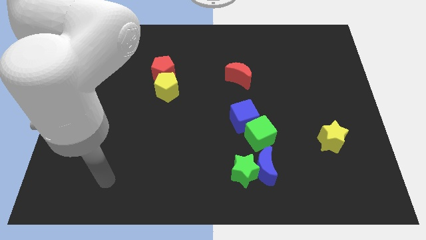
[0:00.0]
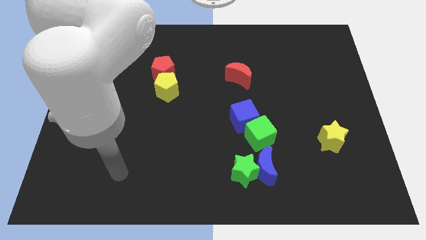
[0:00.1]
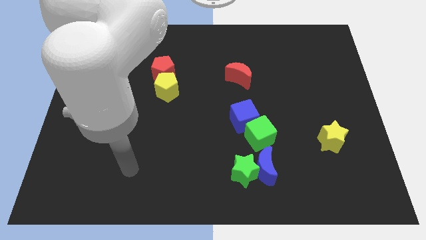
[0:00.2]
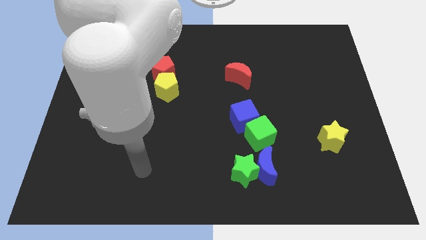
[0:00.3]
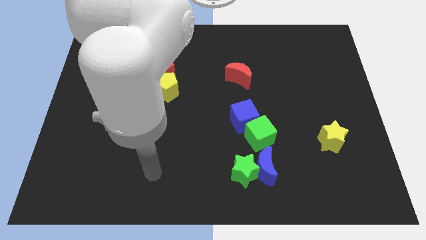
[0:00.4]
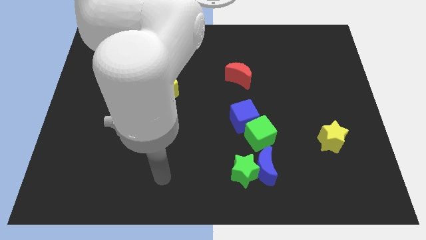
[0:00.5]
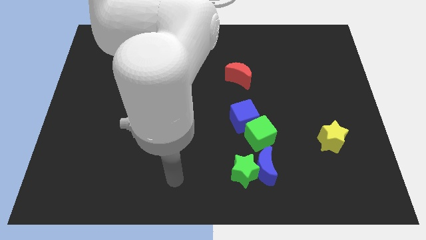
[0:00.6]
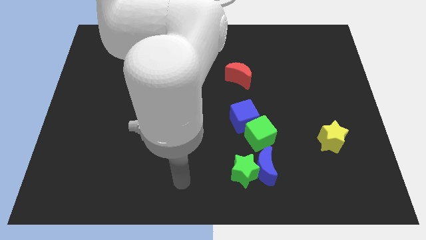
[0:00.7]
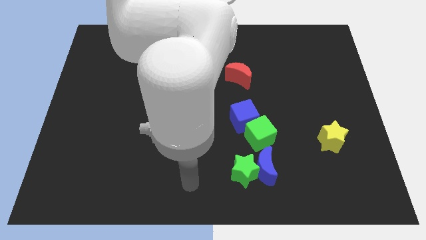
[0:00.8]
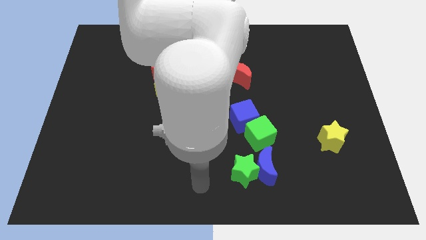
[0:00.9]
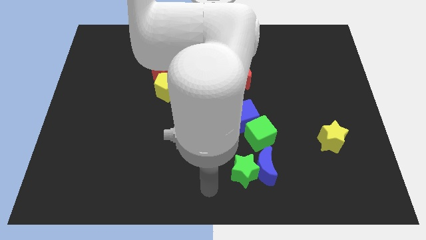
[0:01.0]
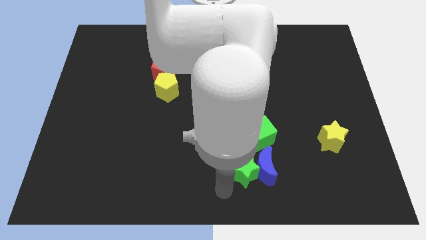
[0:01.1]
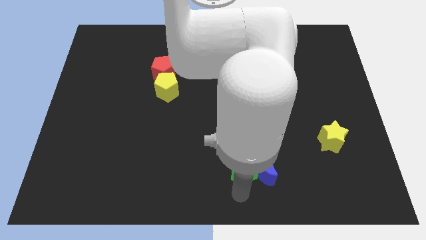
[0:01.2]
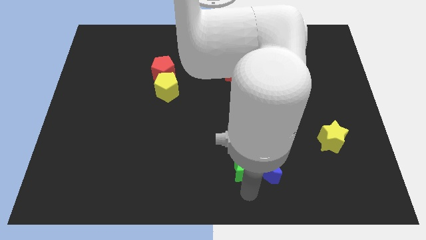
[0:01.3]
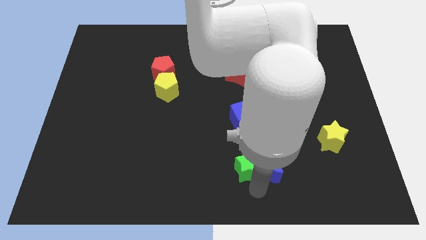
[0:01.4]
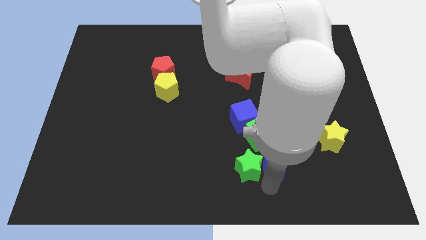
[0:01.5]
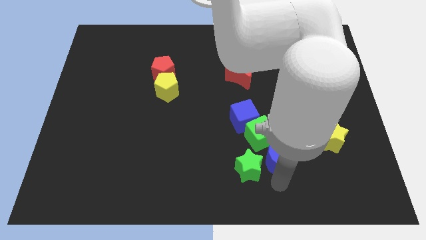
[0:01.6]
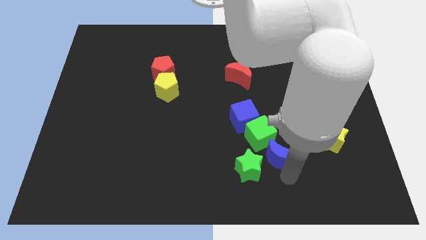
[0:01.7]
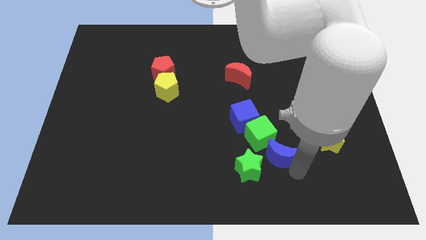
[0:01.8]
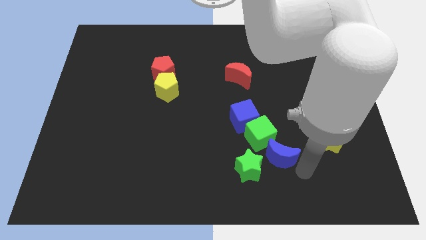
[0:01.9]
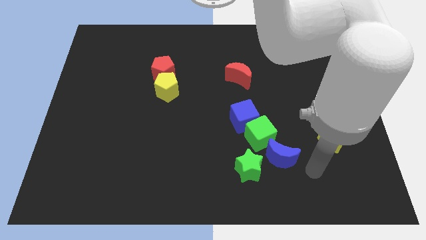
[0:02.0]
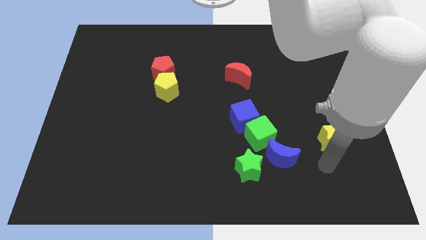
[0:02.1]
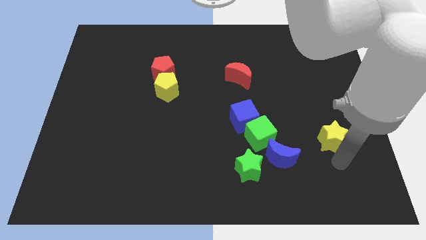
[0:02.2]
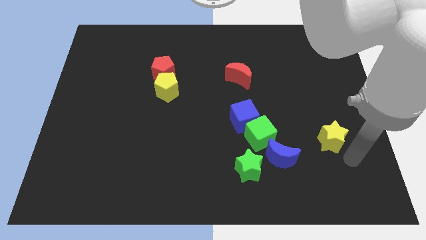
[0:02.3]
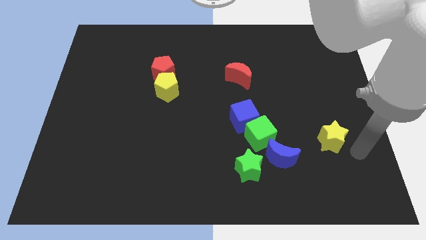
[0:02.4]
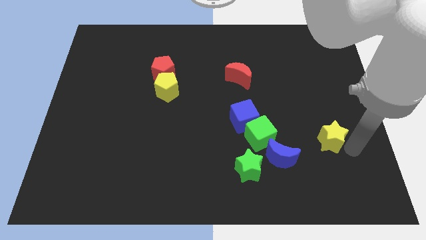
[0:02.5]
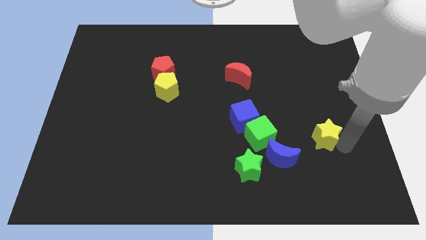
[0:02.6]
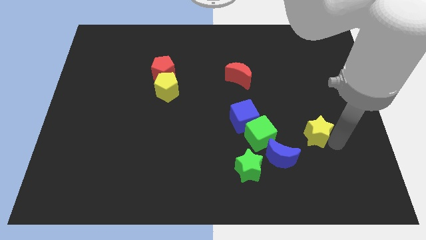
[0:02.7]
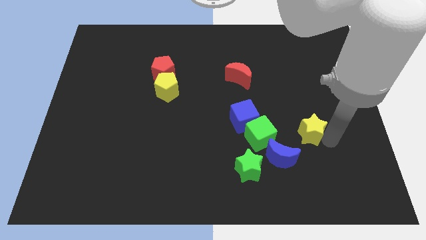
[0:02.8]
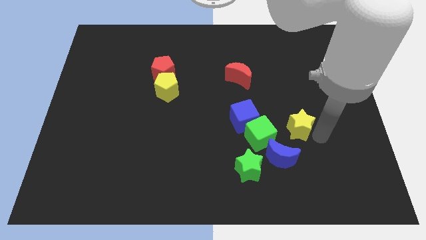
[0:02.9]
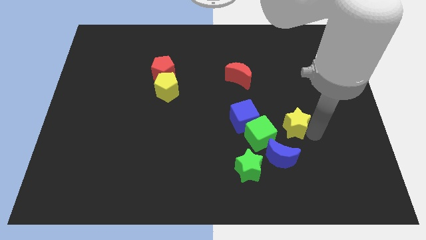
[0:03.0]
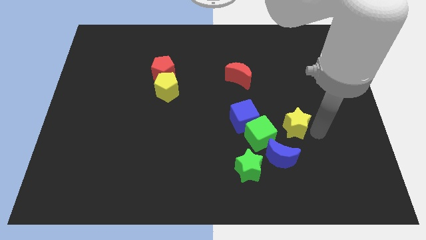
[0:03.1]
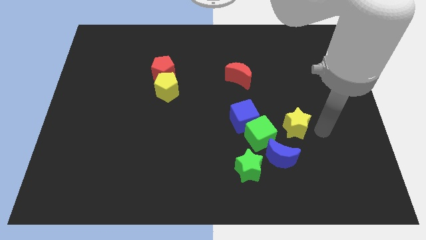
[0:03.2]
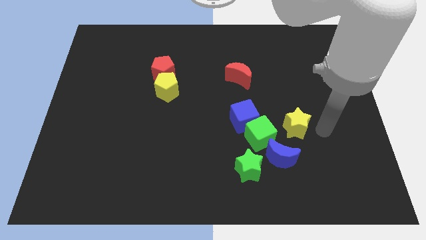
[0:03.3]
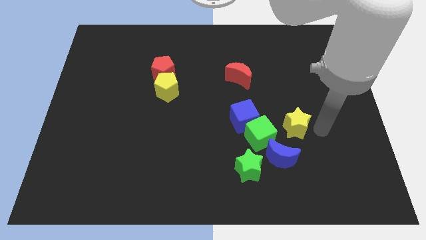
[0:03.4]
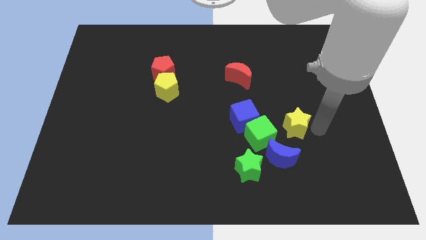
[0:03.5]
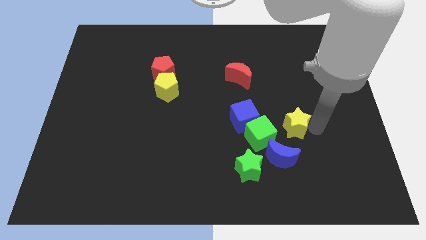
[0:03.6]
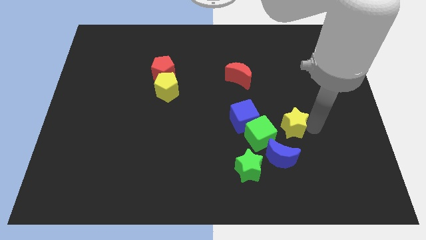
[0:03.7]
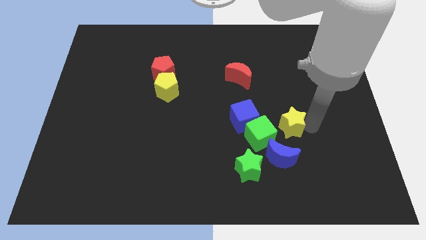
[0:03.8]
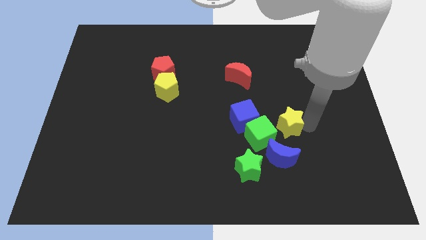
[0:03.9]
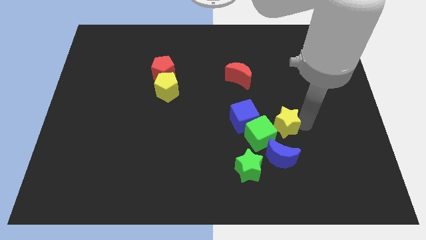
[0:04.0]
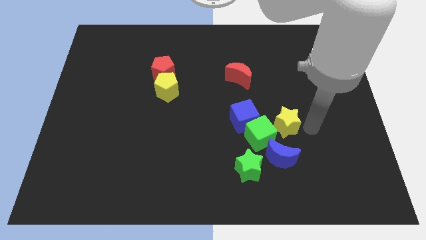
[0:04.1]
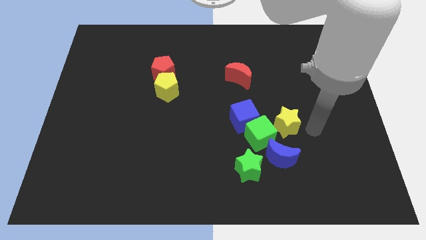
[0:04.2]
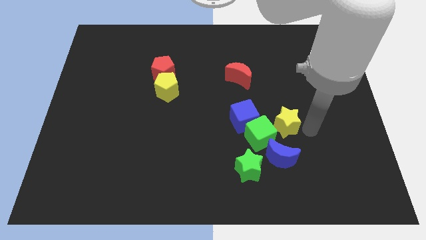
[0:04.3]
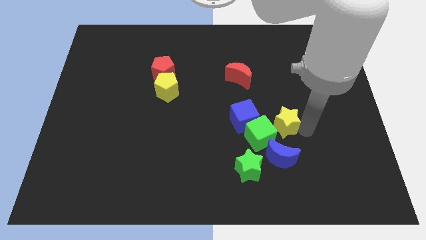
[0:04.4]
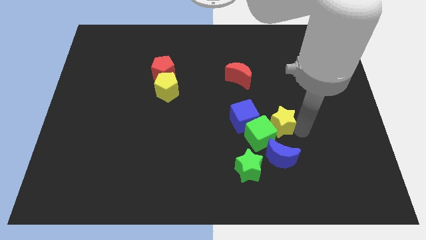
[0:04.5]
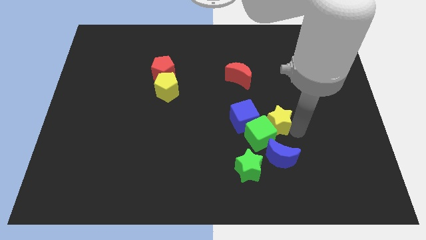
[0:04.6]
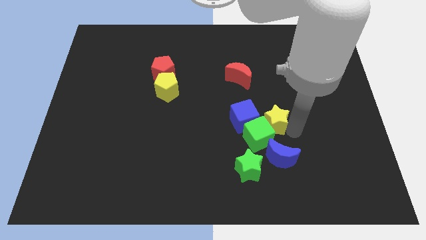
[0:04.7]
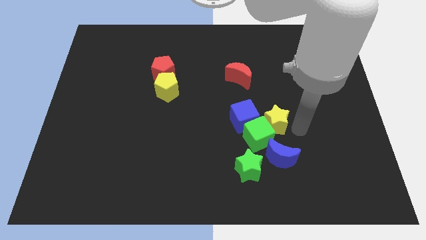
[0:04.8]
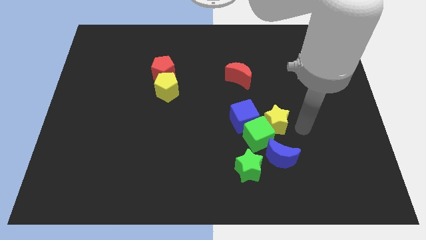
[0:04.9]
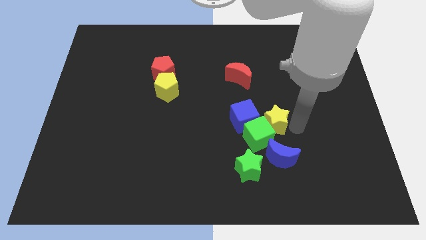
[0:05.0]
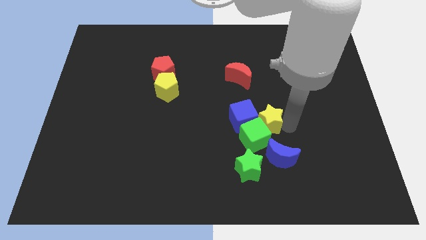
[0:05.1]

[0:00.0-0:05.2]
put the yellow star close to the blue cube

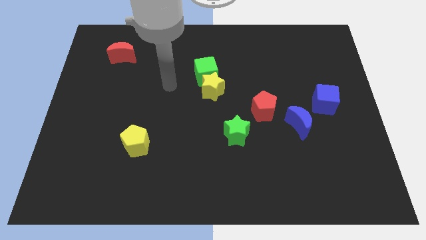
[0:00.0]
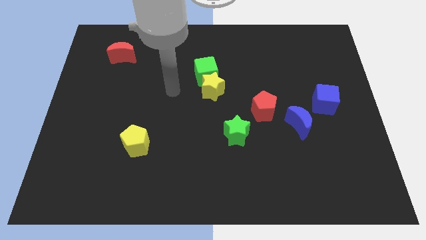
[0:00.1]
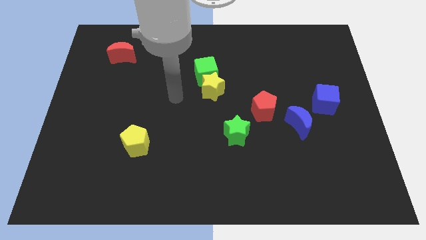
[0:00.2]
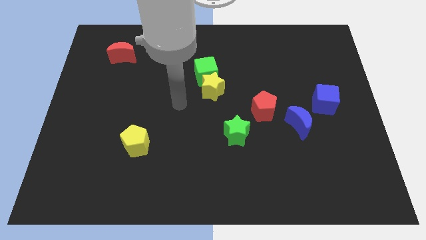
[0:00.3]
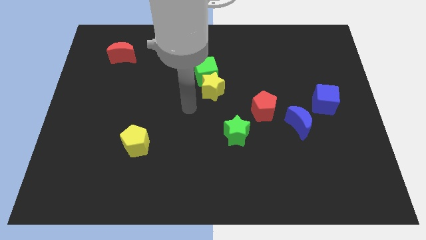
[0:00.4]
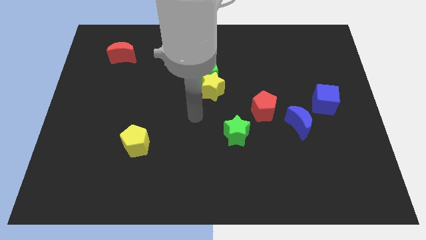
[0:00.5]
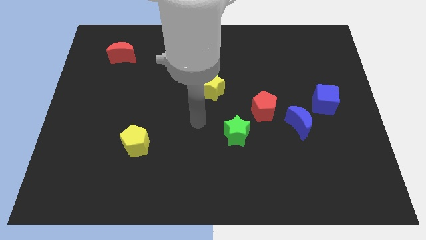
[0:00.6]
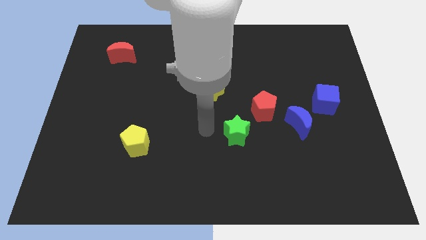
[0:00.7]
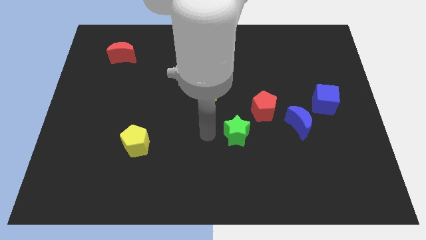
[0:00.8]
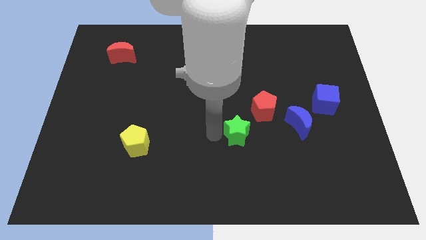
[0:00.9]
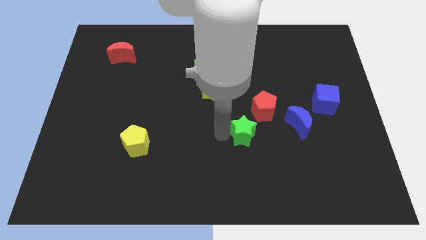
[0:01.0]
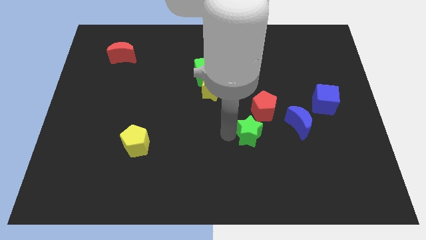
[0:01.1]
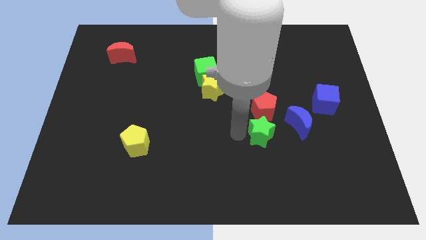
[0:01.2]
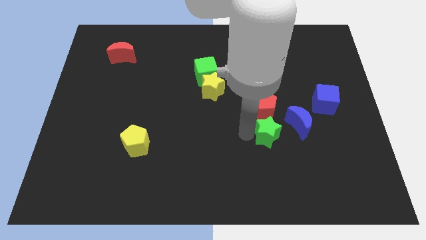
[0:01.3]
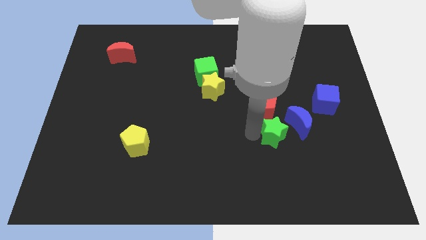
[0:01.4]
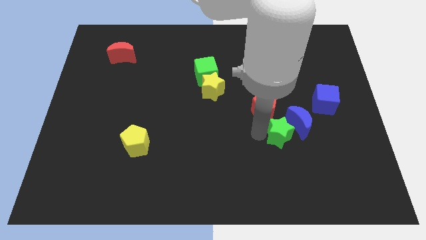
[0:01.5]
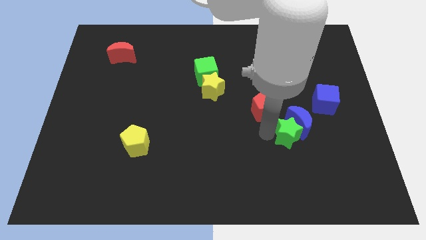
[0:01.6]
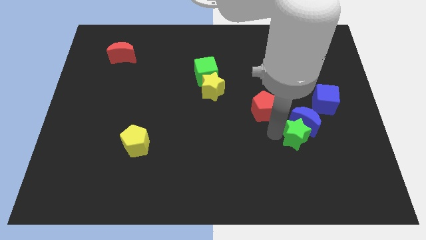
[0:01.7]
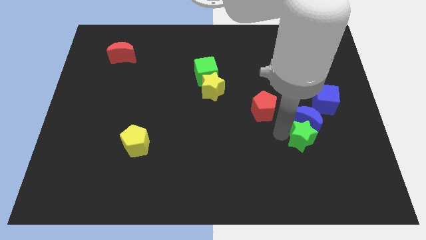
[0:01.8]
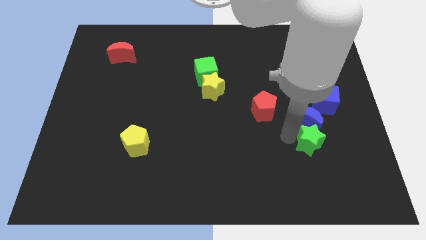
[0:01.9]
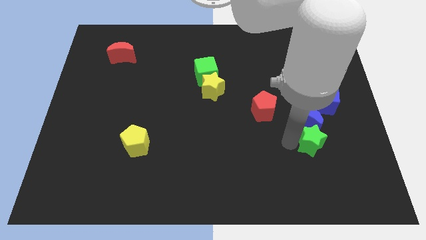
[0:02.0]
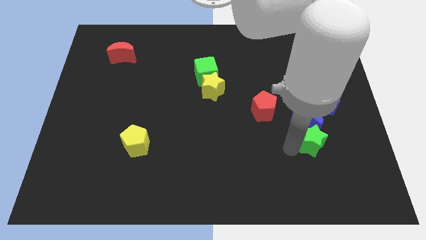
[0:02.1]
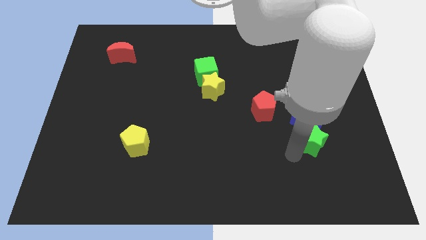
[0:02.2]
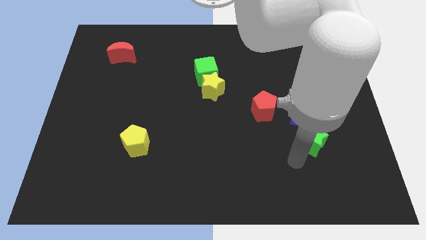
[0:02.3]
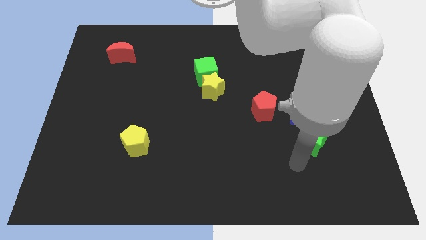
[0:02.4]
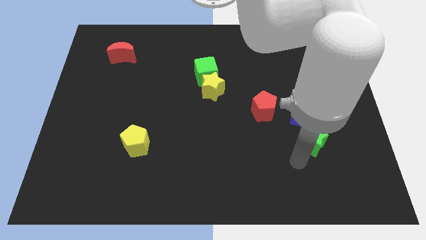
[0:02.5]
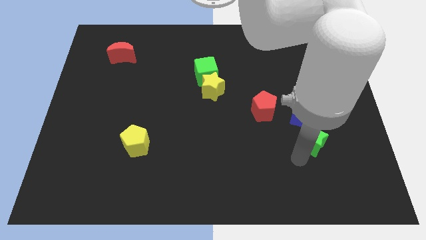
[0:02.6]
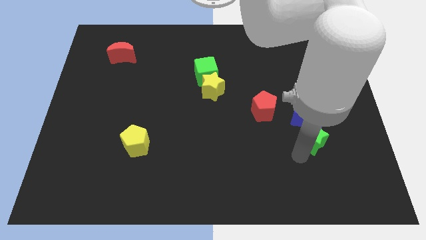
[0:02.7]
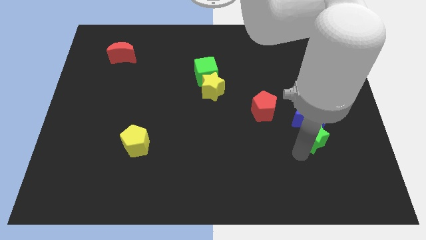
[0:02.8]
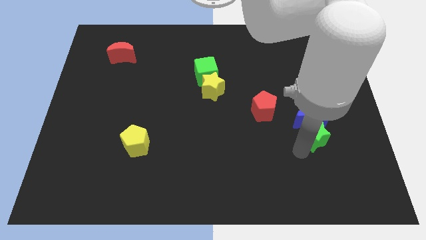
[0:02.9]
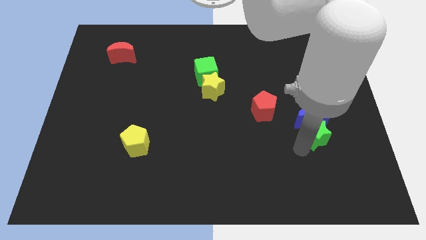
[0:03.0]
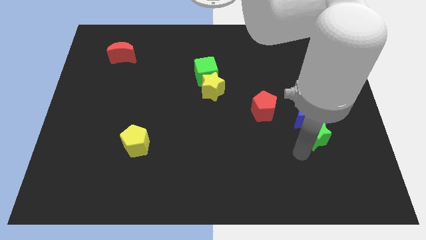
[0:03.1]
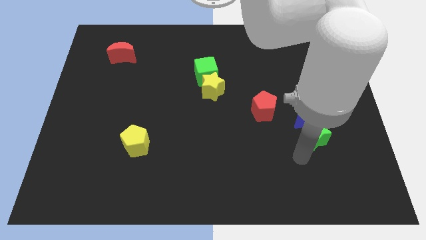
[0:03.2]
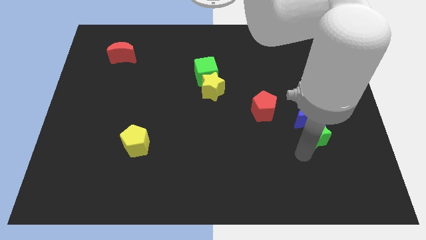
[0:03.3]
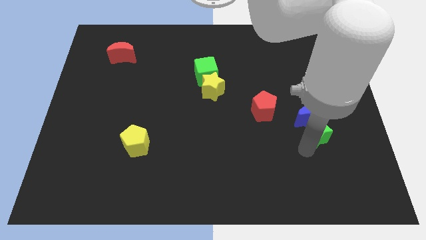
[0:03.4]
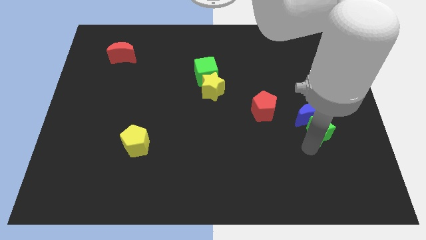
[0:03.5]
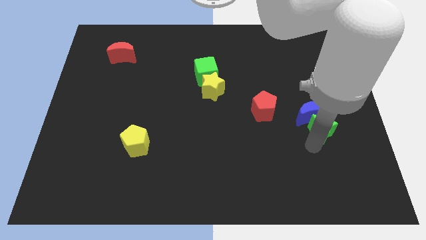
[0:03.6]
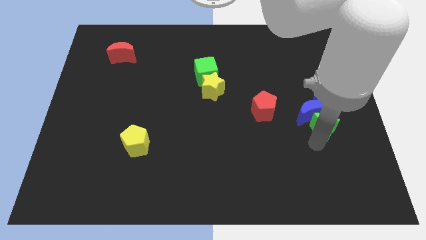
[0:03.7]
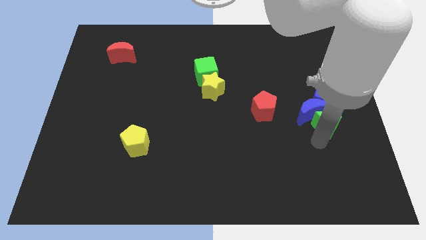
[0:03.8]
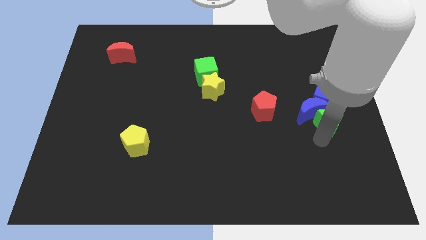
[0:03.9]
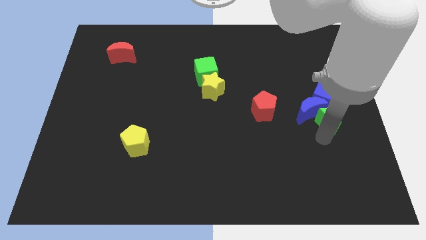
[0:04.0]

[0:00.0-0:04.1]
move the green star towards the blue cube
